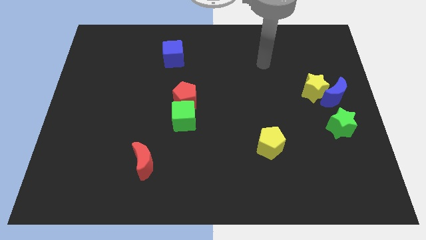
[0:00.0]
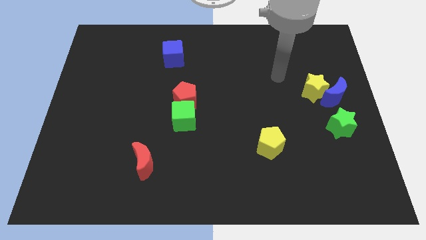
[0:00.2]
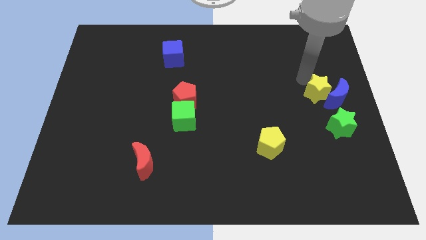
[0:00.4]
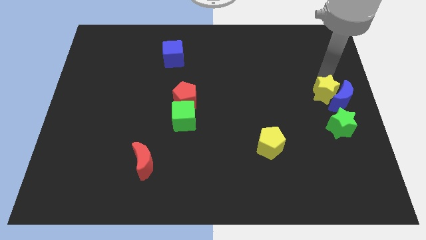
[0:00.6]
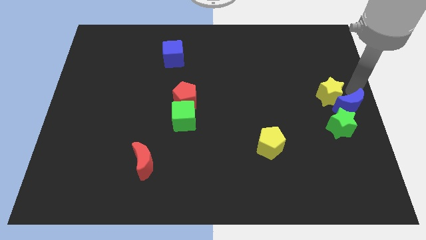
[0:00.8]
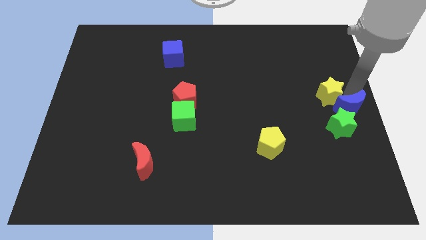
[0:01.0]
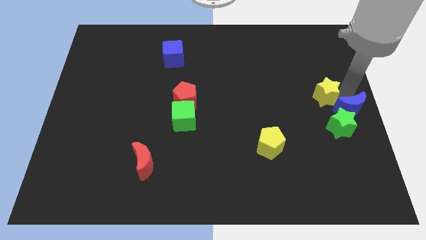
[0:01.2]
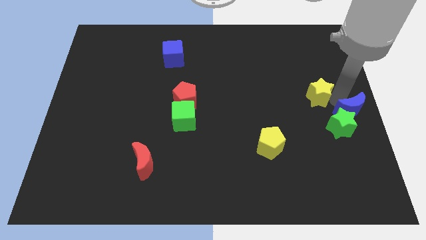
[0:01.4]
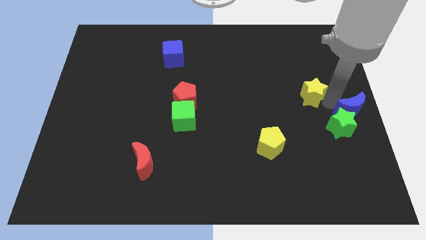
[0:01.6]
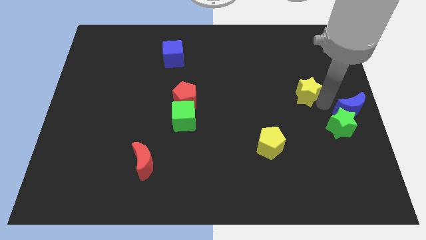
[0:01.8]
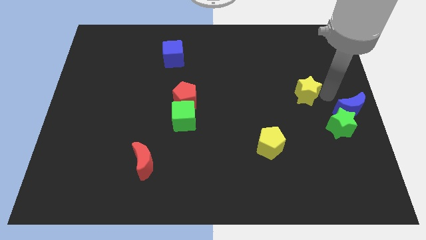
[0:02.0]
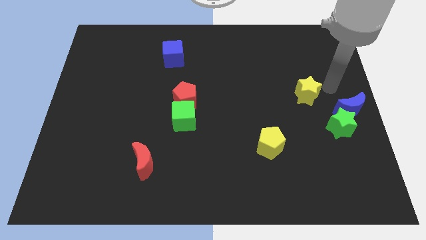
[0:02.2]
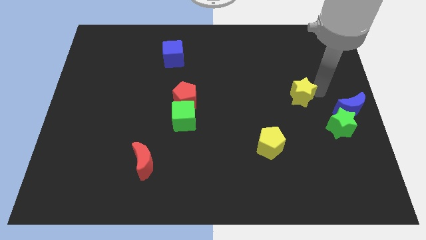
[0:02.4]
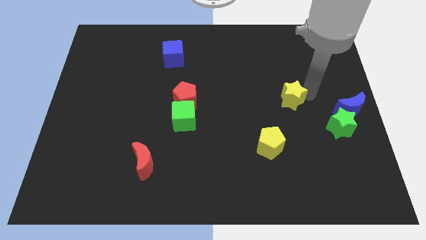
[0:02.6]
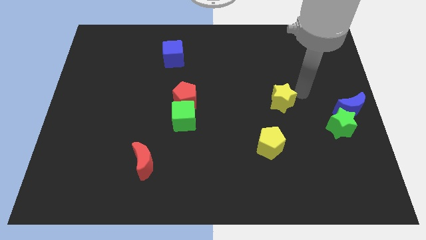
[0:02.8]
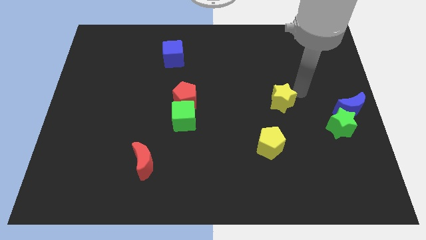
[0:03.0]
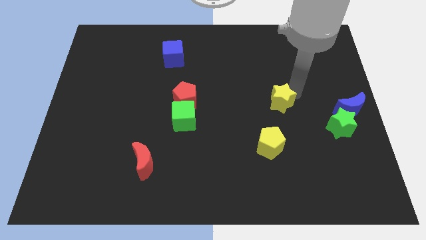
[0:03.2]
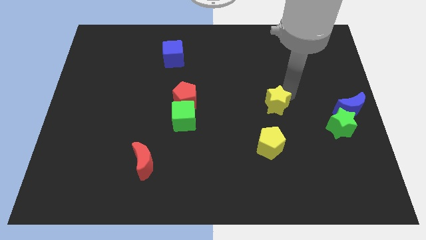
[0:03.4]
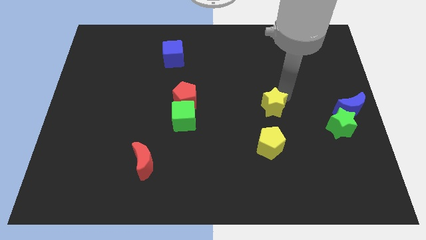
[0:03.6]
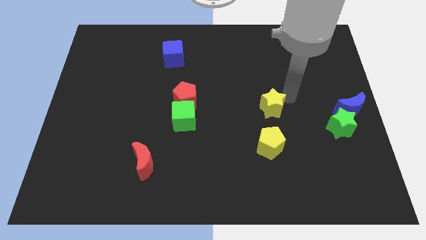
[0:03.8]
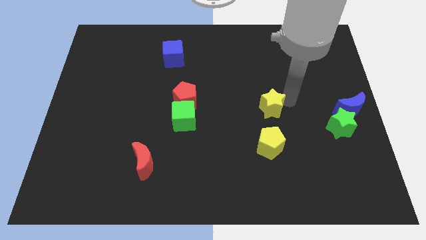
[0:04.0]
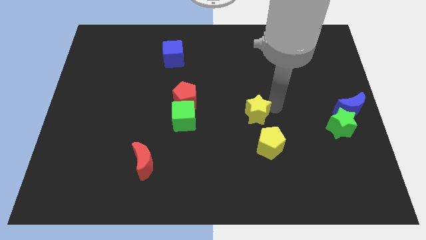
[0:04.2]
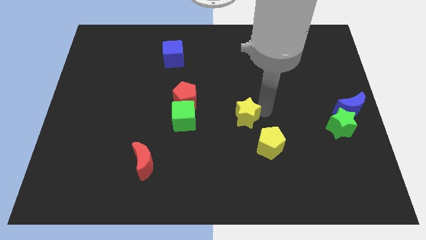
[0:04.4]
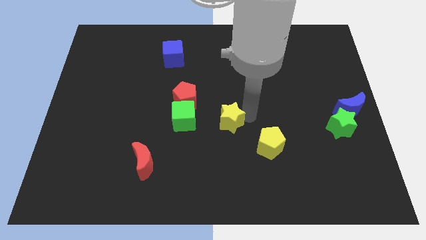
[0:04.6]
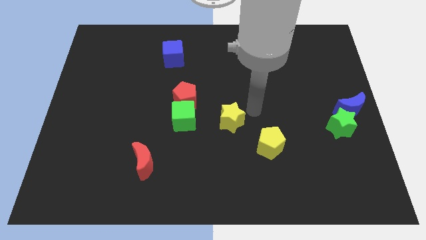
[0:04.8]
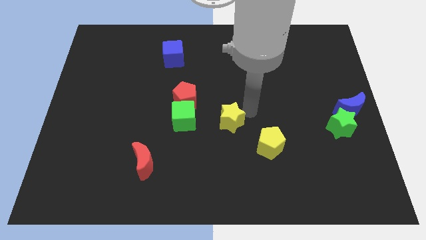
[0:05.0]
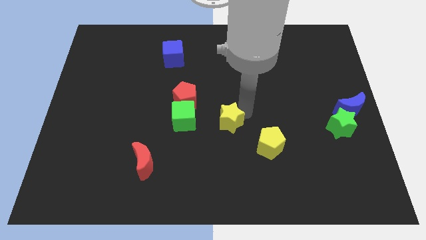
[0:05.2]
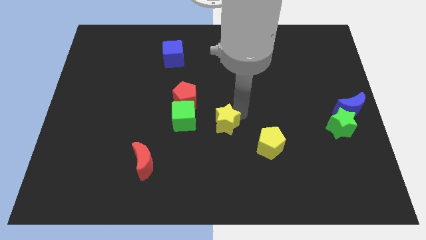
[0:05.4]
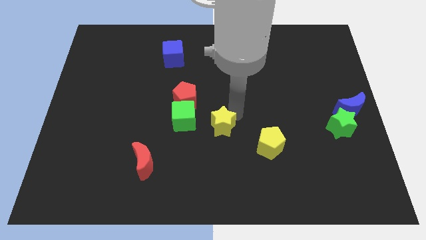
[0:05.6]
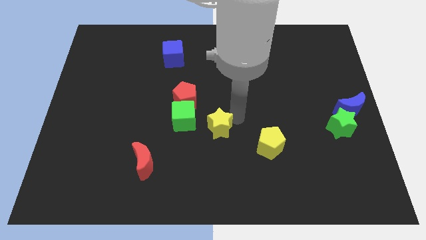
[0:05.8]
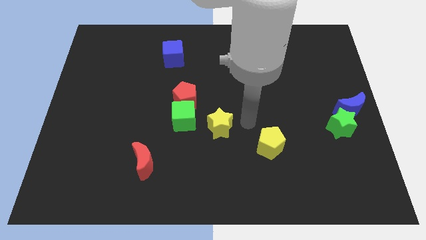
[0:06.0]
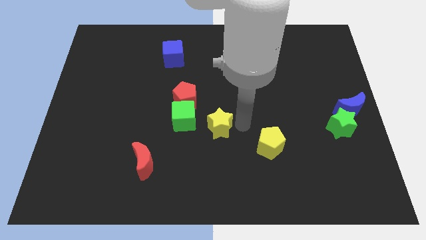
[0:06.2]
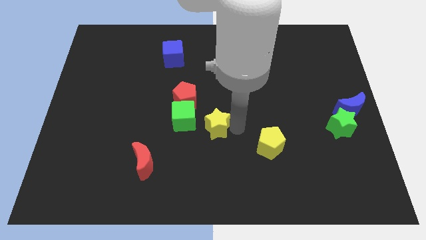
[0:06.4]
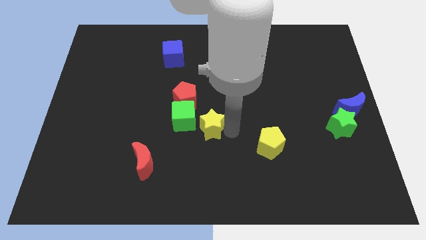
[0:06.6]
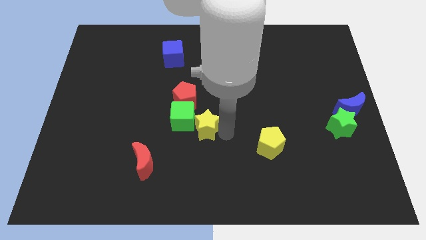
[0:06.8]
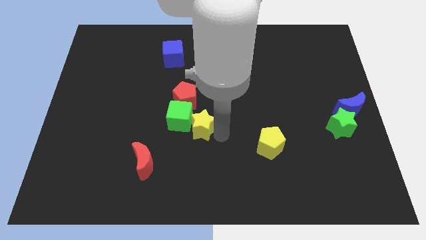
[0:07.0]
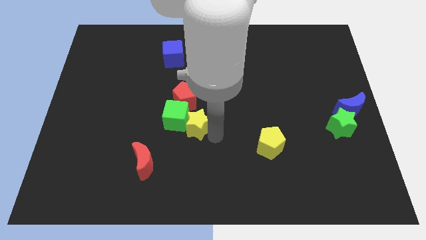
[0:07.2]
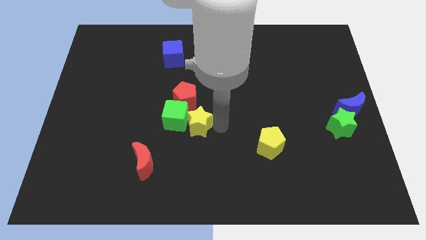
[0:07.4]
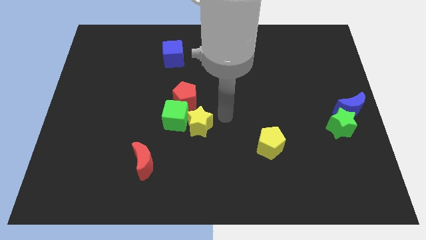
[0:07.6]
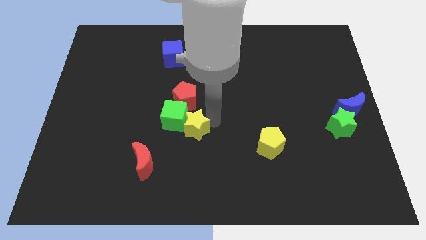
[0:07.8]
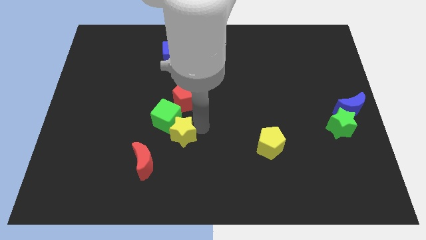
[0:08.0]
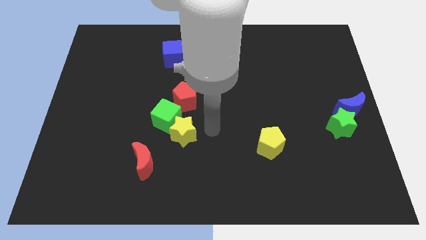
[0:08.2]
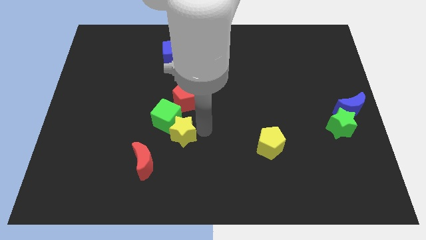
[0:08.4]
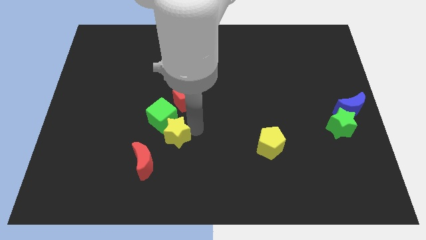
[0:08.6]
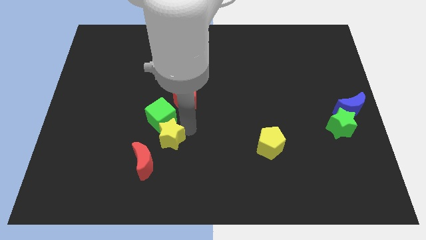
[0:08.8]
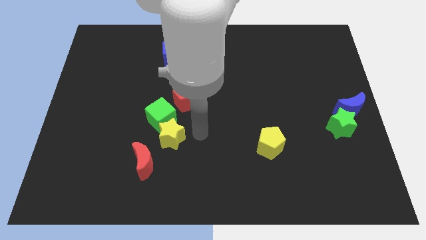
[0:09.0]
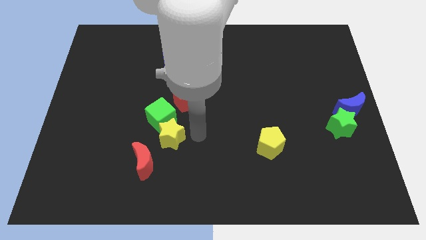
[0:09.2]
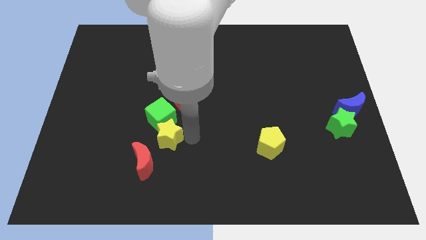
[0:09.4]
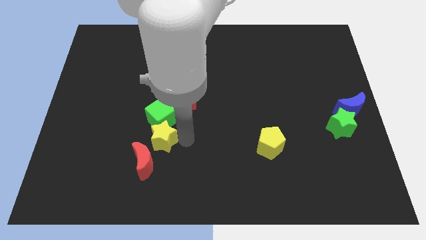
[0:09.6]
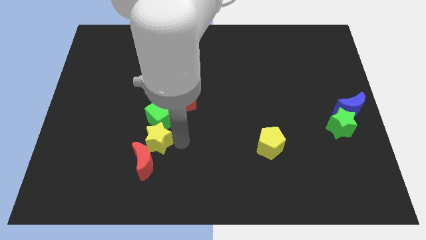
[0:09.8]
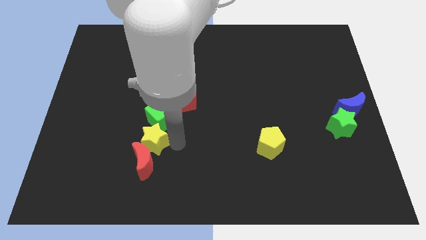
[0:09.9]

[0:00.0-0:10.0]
slide the yellow star to the top left of the red moon

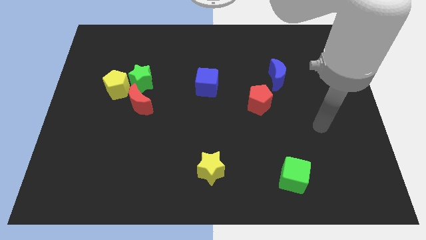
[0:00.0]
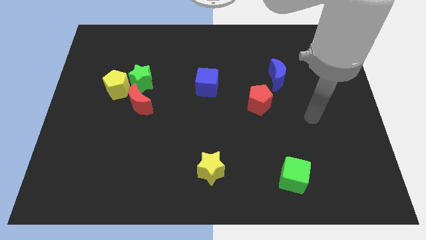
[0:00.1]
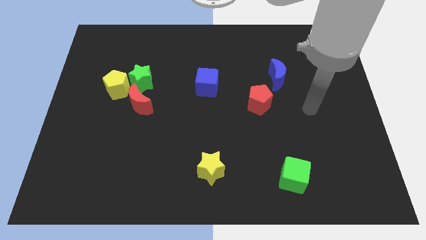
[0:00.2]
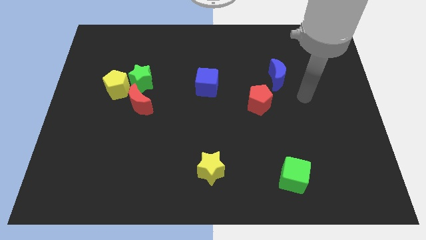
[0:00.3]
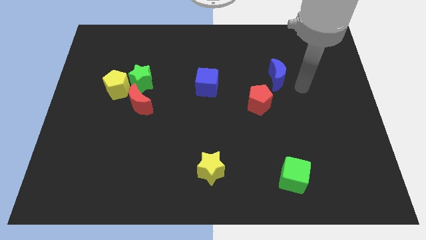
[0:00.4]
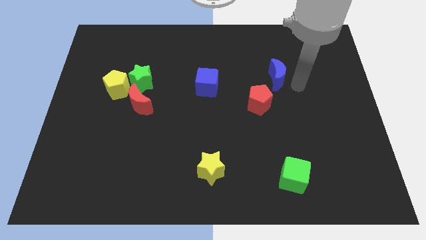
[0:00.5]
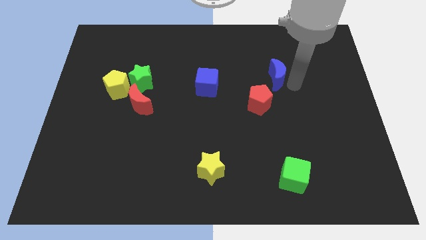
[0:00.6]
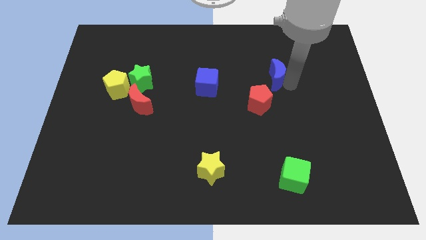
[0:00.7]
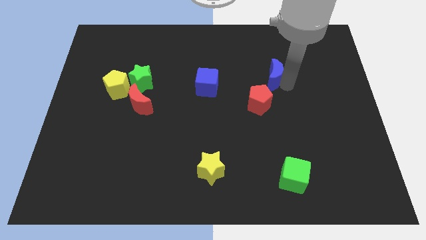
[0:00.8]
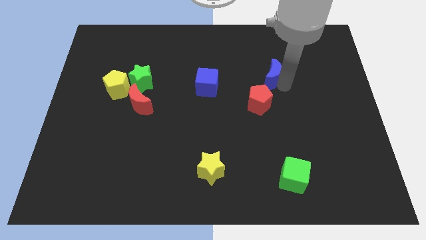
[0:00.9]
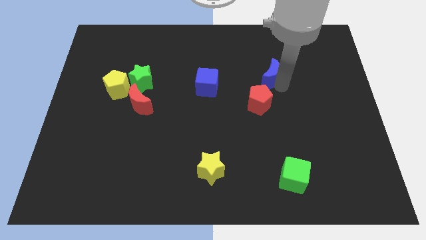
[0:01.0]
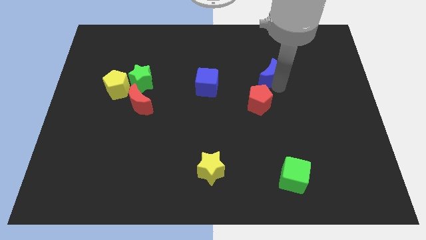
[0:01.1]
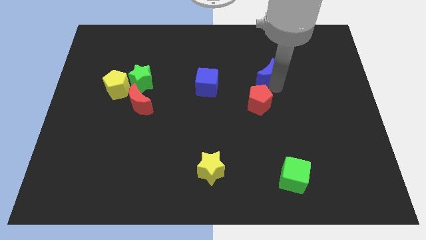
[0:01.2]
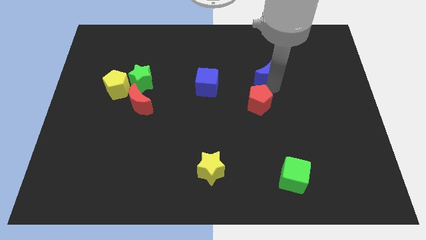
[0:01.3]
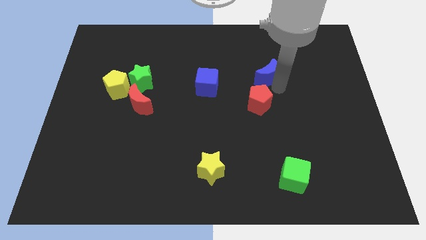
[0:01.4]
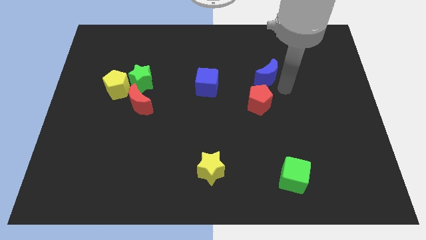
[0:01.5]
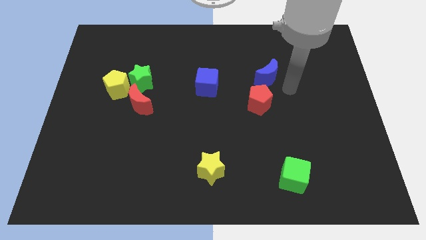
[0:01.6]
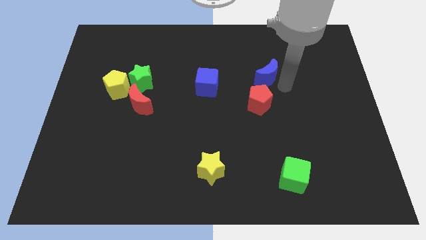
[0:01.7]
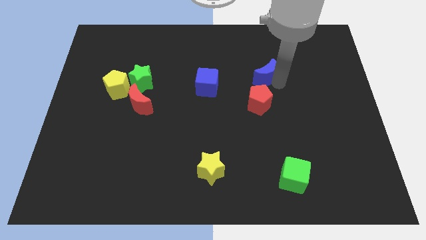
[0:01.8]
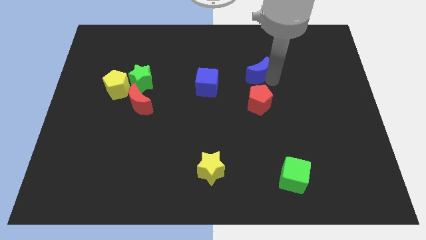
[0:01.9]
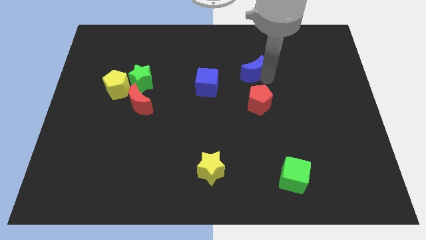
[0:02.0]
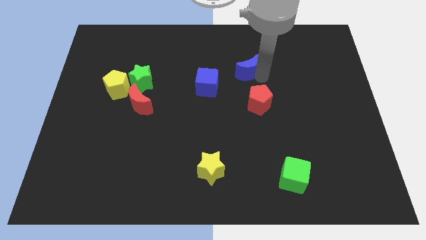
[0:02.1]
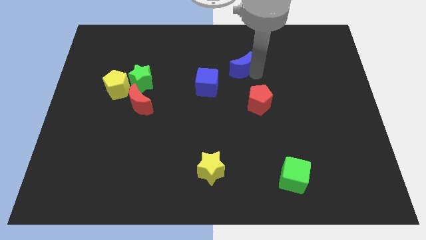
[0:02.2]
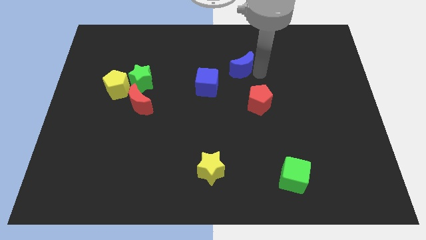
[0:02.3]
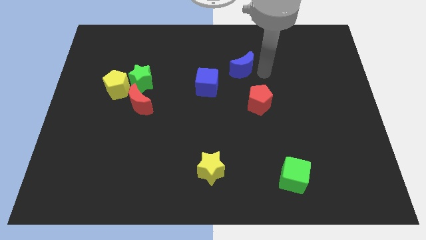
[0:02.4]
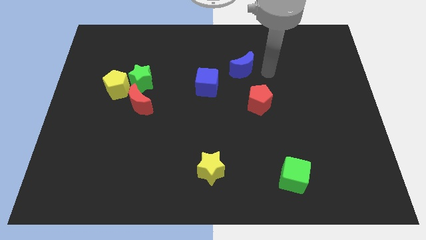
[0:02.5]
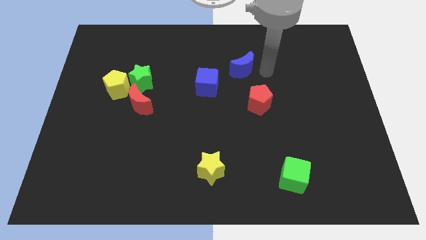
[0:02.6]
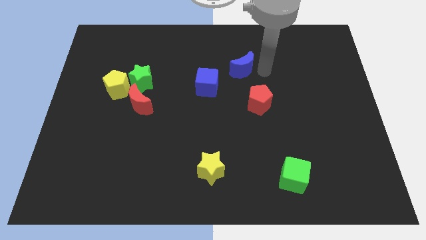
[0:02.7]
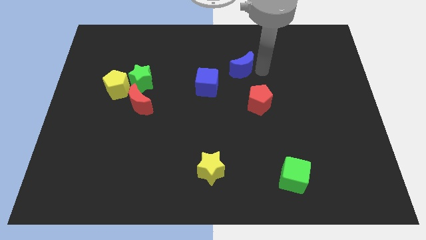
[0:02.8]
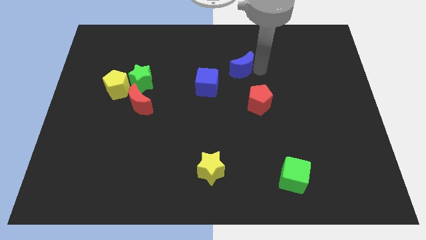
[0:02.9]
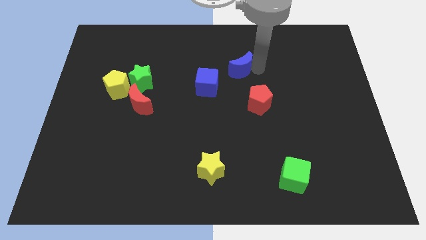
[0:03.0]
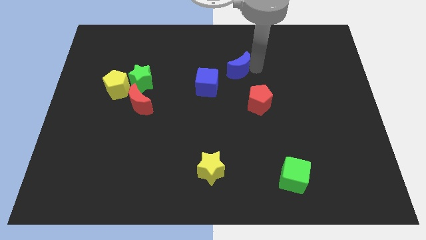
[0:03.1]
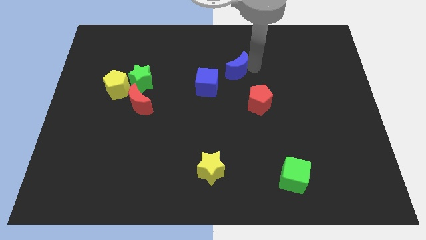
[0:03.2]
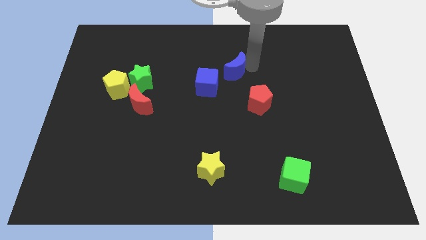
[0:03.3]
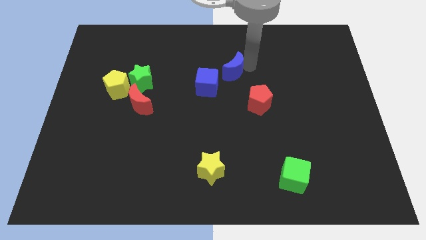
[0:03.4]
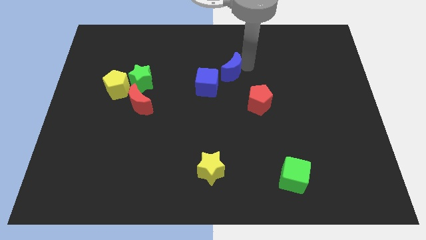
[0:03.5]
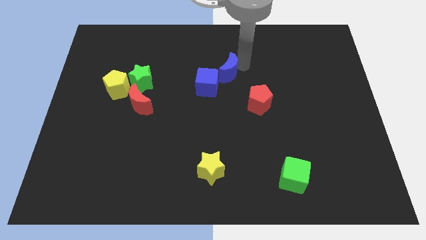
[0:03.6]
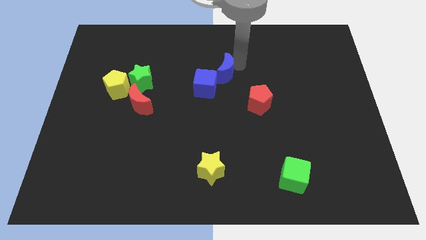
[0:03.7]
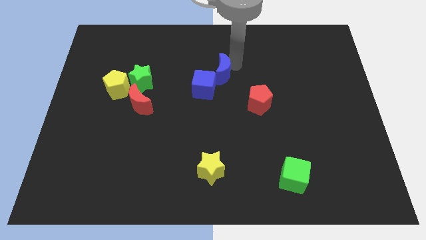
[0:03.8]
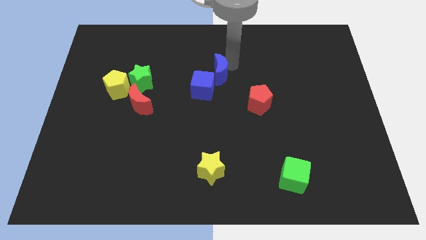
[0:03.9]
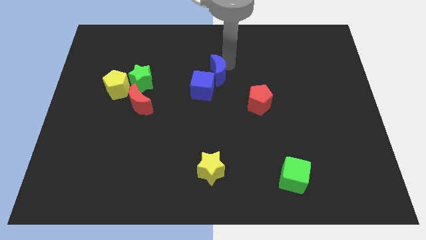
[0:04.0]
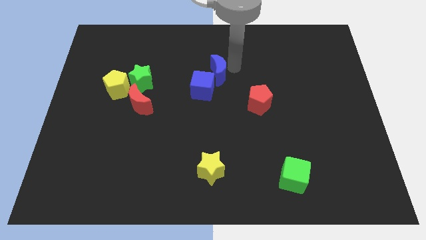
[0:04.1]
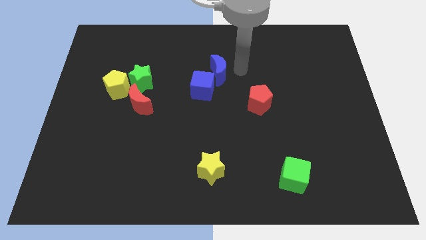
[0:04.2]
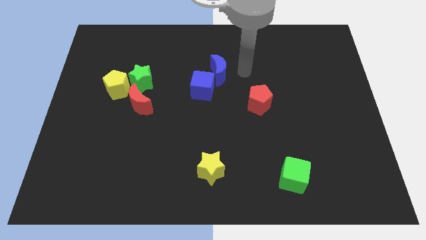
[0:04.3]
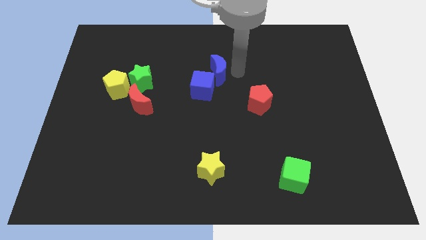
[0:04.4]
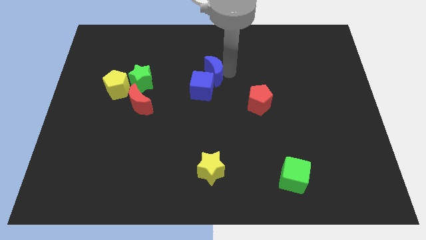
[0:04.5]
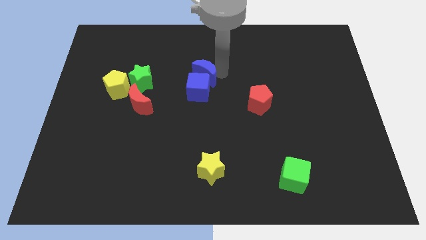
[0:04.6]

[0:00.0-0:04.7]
push the blue moon to the top left side of the blue cube
